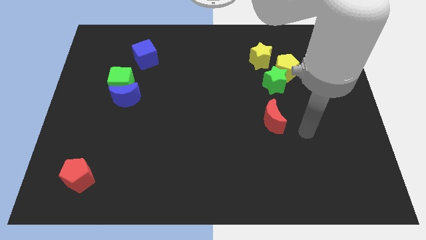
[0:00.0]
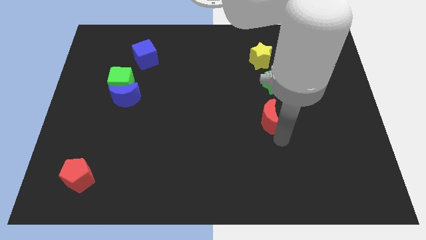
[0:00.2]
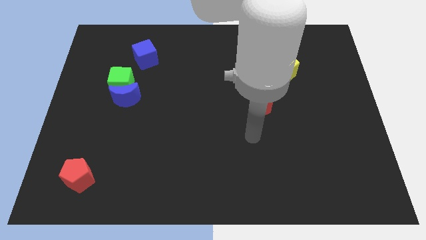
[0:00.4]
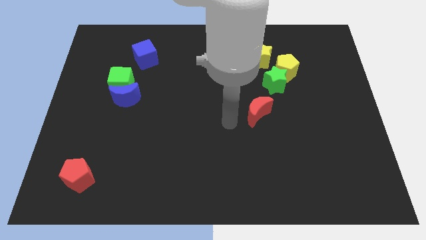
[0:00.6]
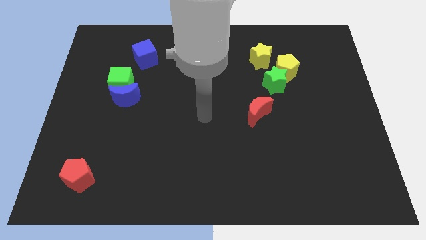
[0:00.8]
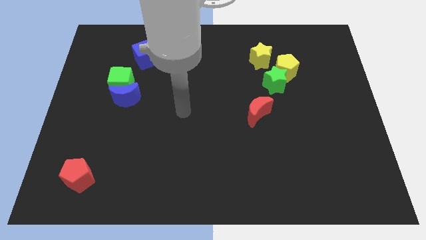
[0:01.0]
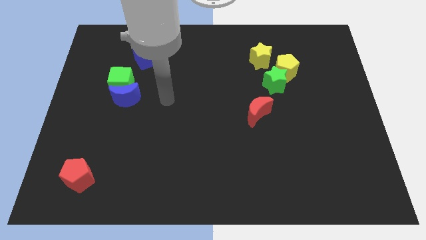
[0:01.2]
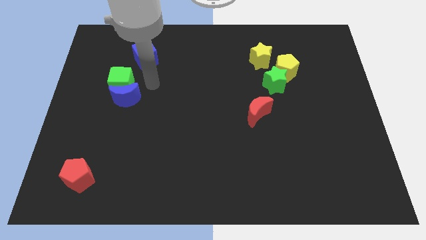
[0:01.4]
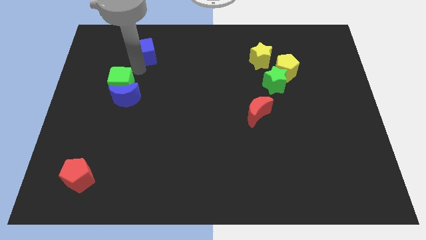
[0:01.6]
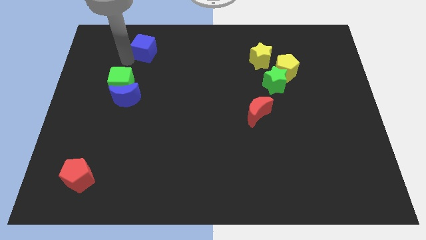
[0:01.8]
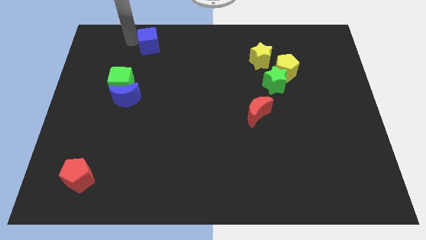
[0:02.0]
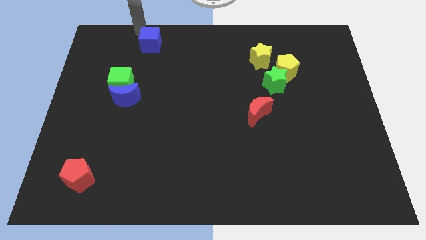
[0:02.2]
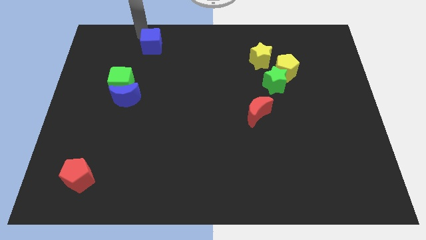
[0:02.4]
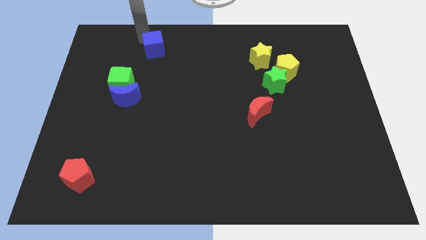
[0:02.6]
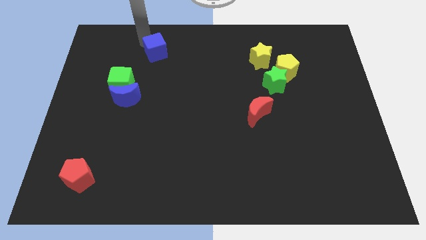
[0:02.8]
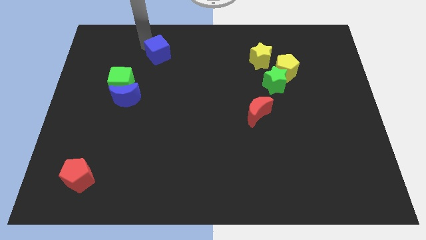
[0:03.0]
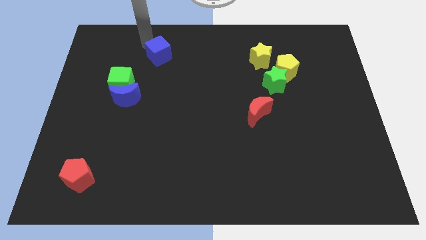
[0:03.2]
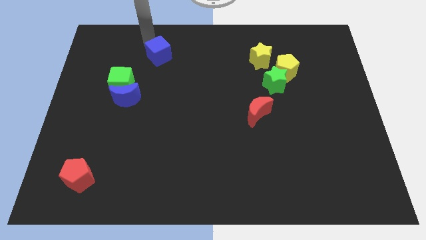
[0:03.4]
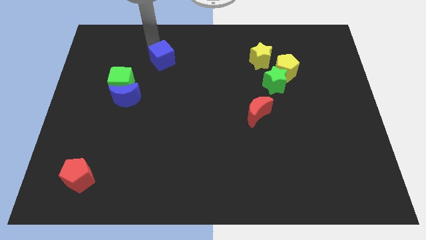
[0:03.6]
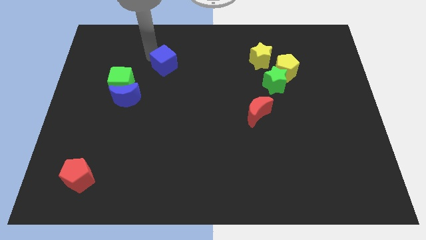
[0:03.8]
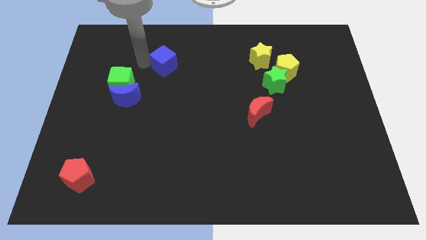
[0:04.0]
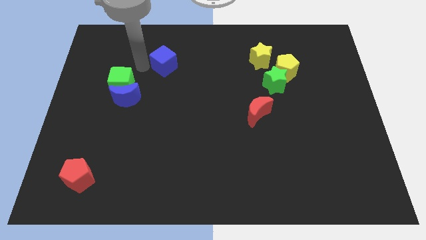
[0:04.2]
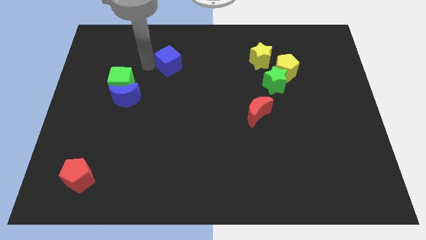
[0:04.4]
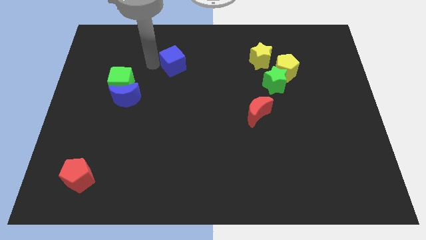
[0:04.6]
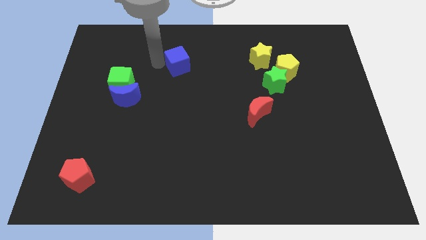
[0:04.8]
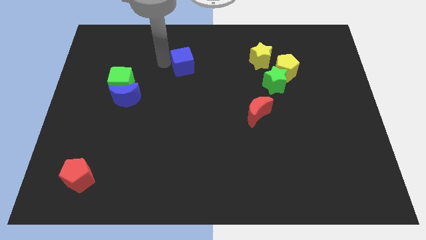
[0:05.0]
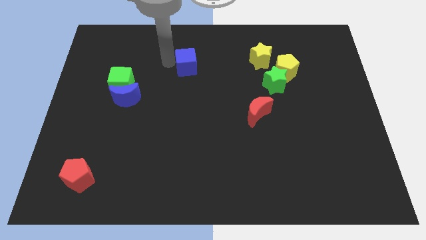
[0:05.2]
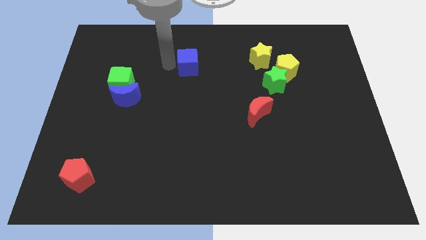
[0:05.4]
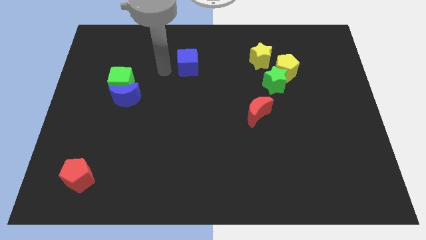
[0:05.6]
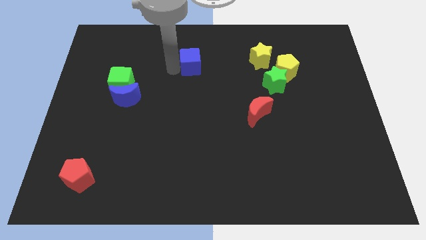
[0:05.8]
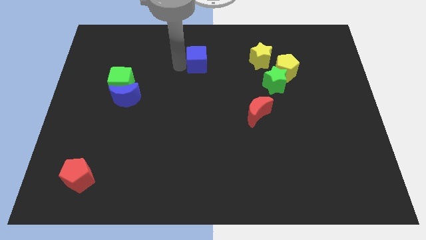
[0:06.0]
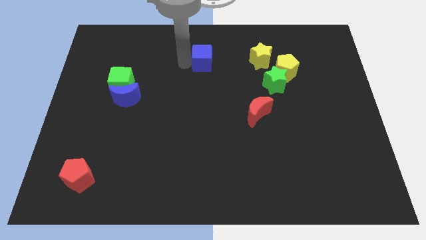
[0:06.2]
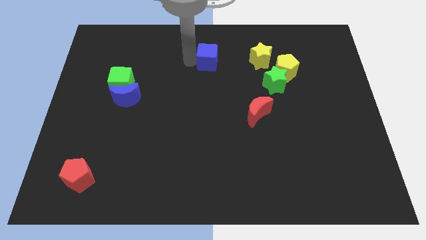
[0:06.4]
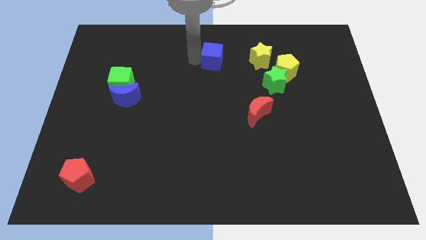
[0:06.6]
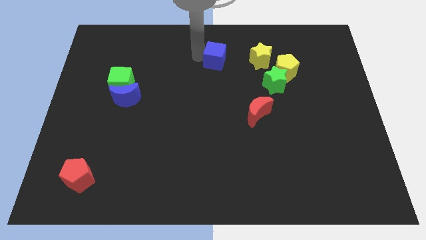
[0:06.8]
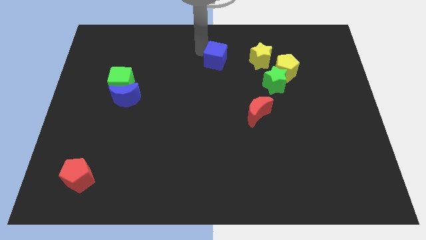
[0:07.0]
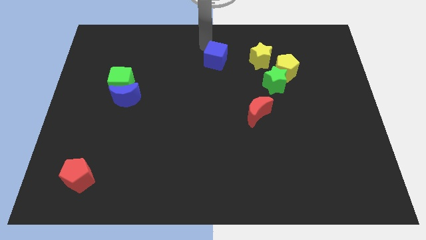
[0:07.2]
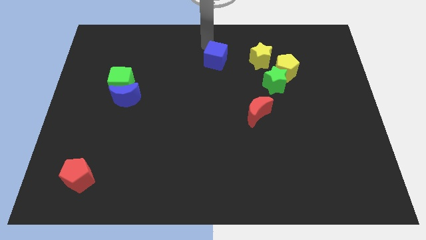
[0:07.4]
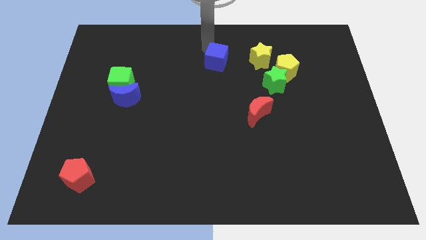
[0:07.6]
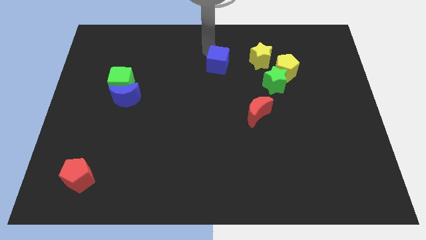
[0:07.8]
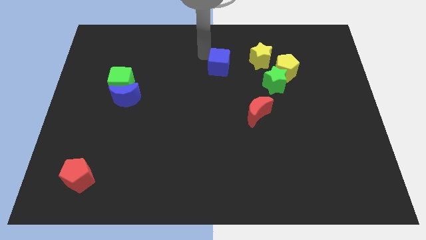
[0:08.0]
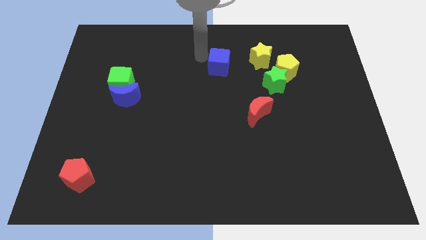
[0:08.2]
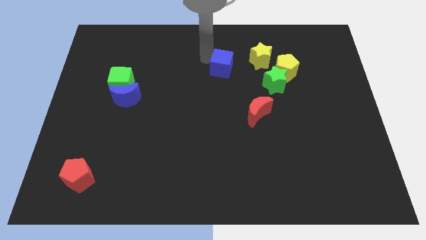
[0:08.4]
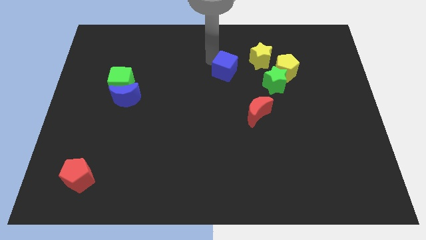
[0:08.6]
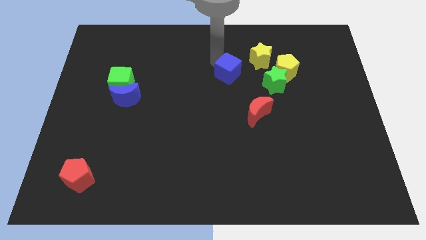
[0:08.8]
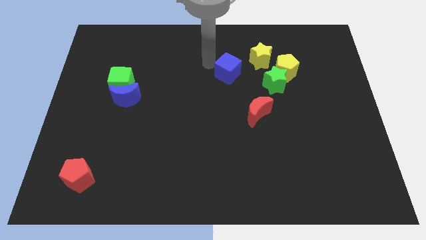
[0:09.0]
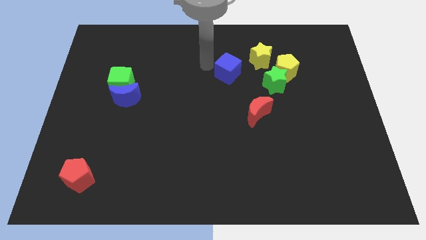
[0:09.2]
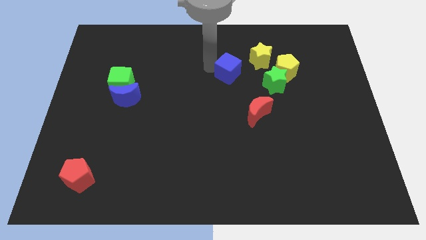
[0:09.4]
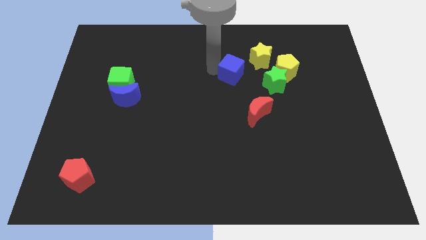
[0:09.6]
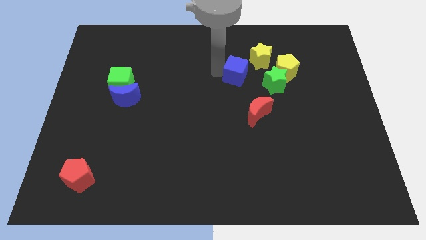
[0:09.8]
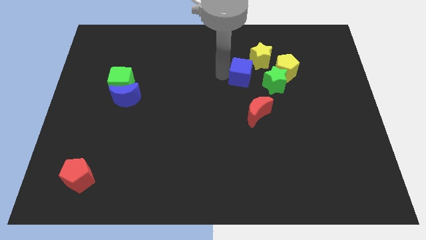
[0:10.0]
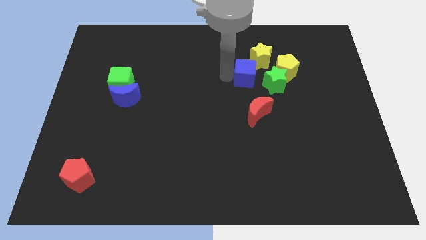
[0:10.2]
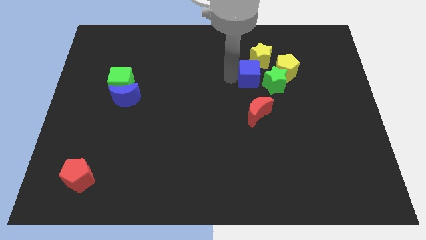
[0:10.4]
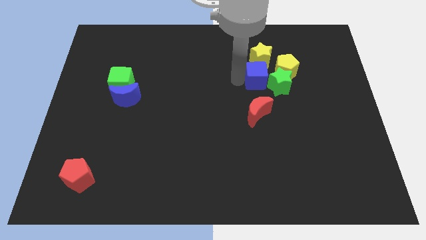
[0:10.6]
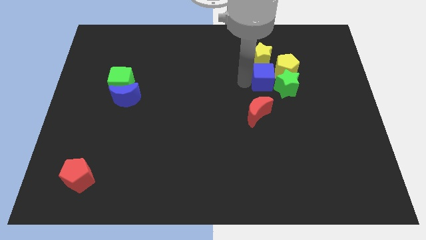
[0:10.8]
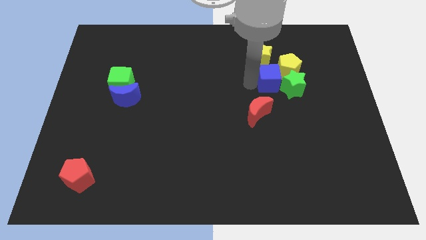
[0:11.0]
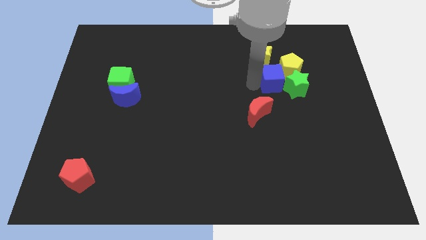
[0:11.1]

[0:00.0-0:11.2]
put the blue cube to the yellow pentagon

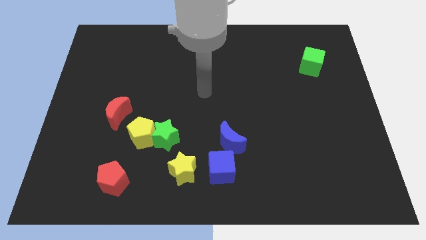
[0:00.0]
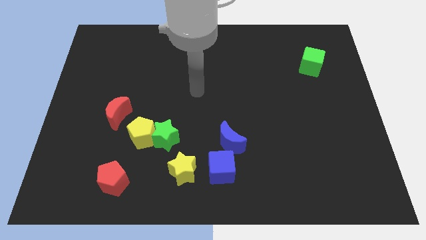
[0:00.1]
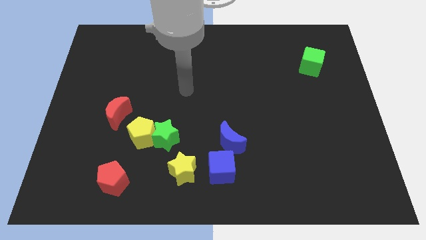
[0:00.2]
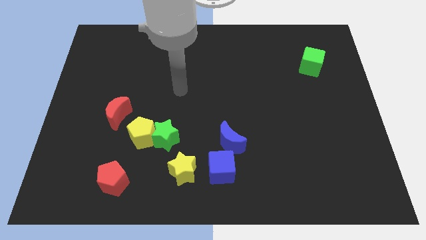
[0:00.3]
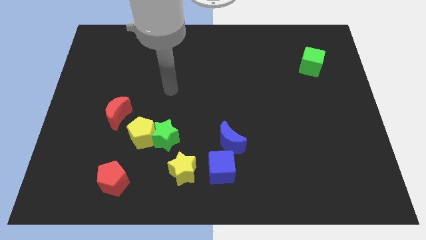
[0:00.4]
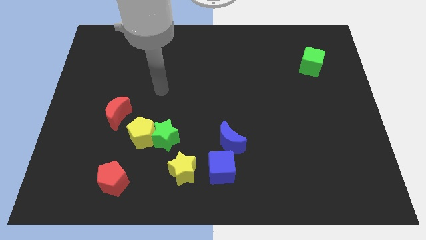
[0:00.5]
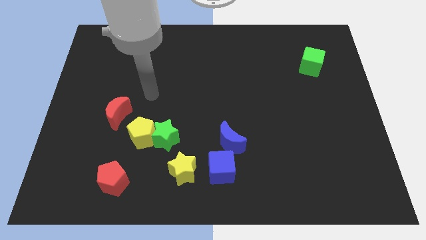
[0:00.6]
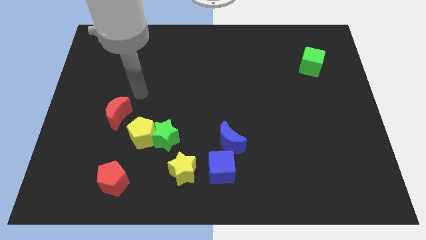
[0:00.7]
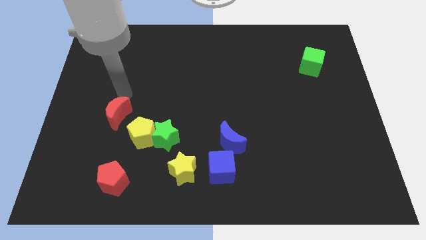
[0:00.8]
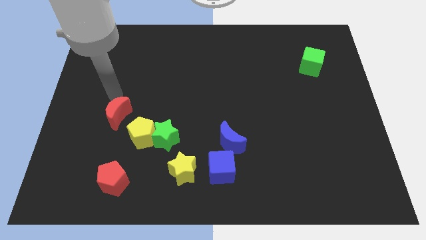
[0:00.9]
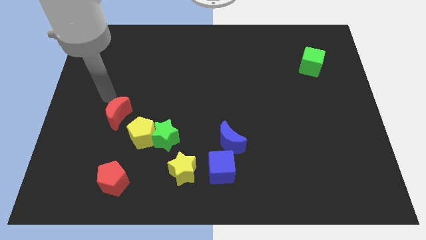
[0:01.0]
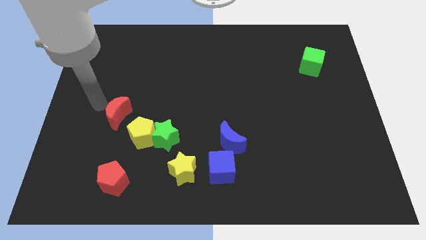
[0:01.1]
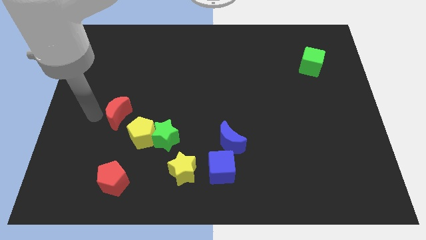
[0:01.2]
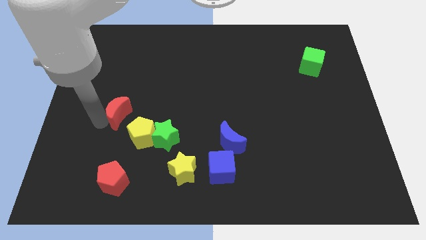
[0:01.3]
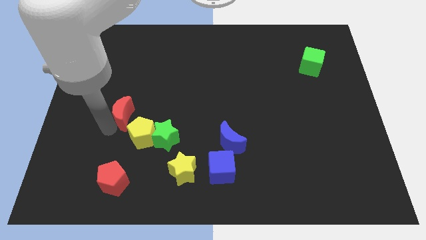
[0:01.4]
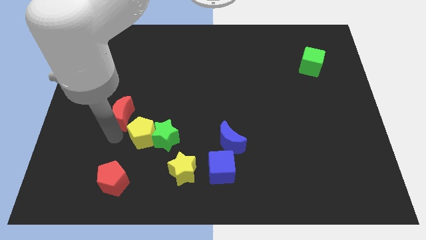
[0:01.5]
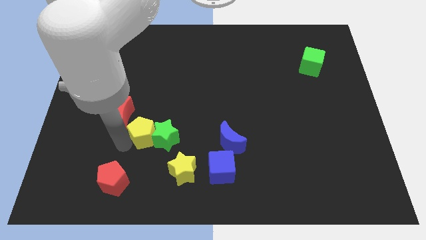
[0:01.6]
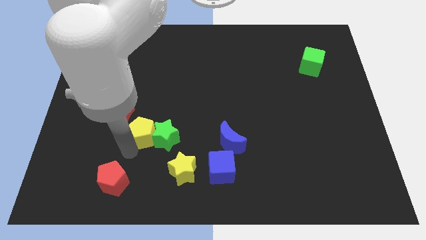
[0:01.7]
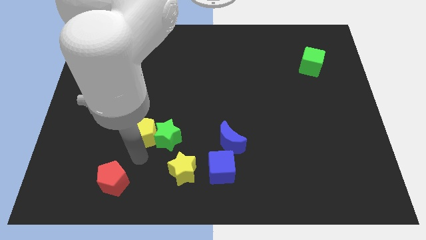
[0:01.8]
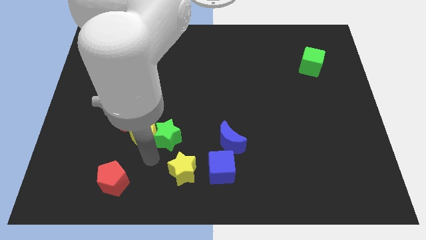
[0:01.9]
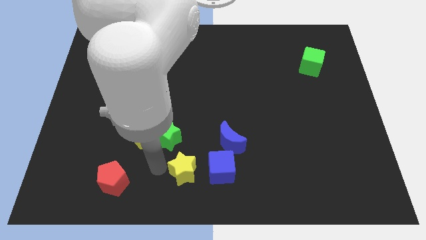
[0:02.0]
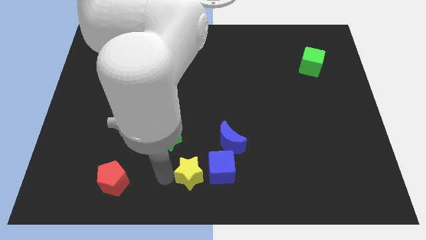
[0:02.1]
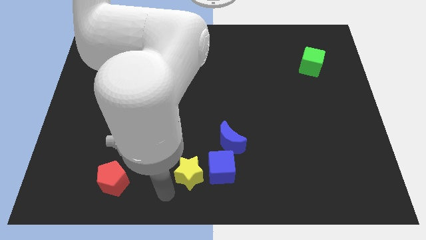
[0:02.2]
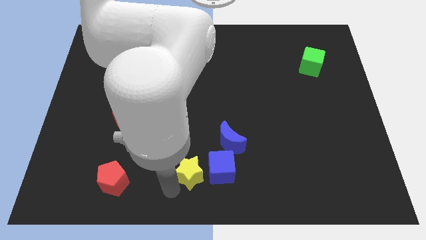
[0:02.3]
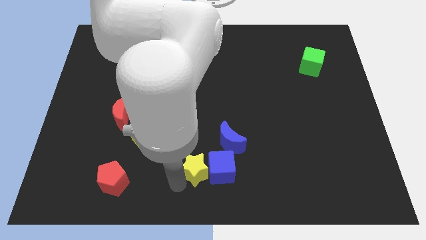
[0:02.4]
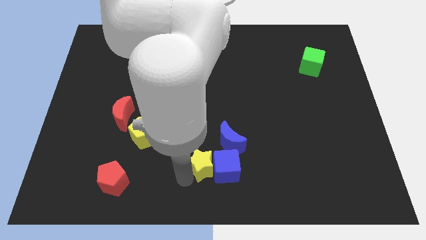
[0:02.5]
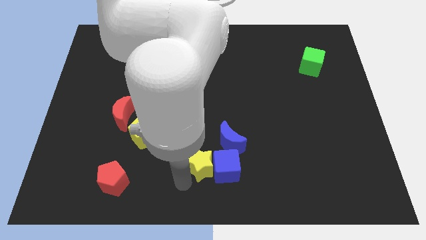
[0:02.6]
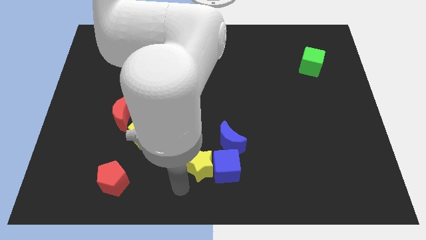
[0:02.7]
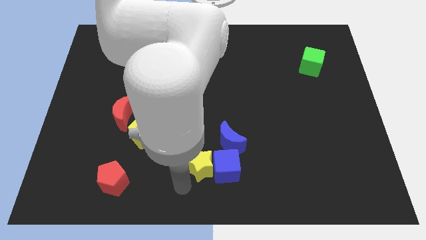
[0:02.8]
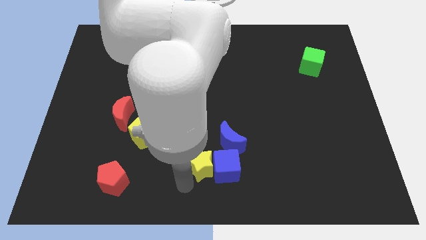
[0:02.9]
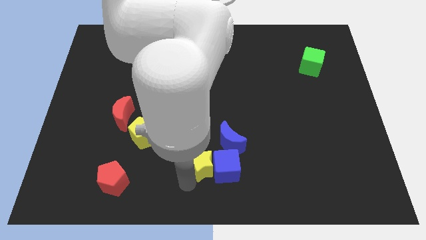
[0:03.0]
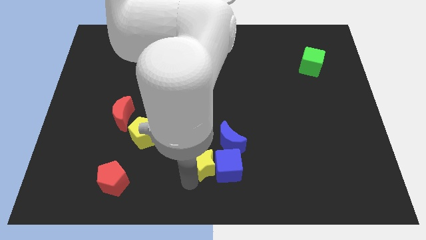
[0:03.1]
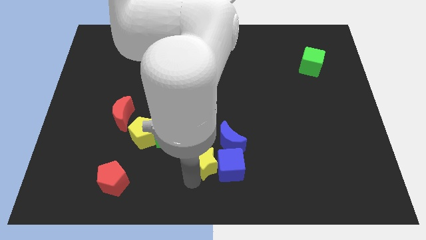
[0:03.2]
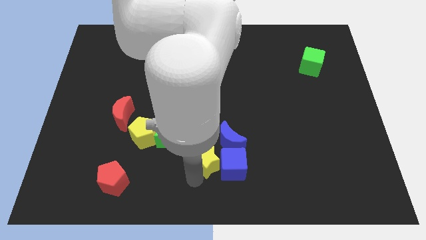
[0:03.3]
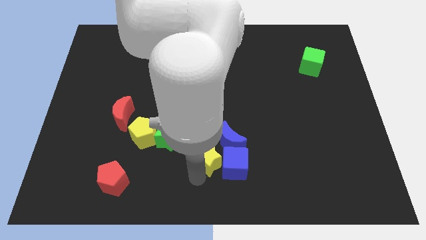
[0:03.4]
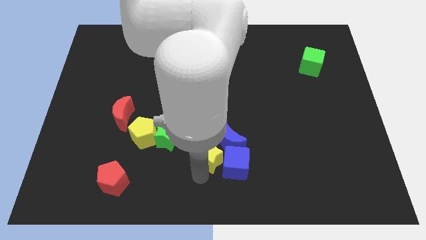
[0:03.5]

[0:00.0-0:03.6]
push the yellow star to the blue moon
